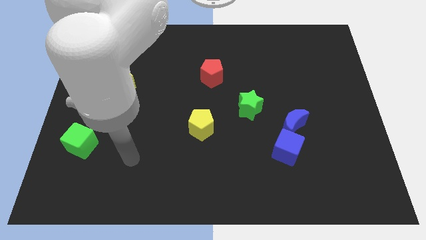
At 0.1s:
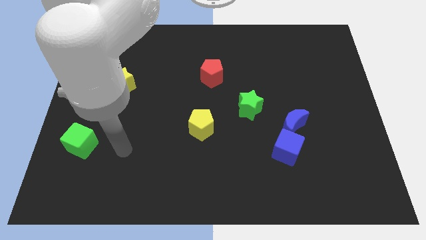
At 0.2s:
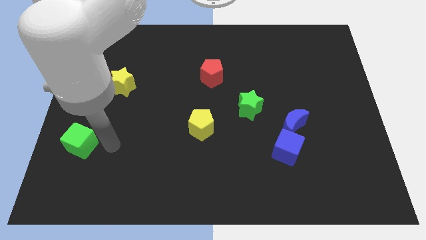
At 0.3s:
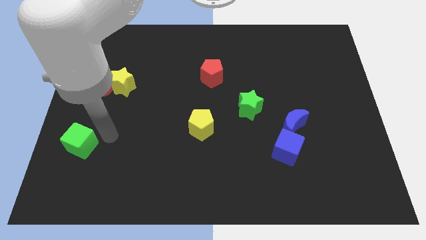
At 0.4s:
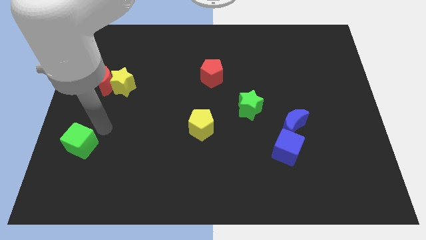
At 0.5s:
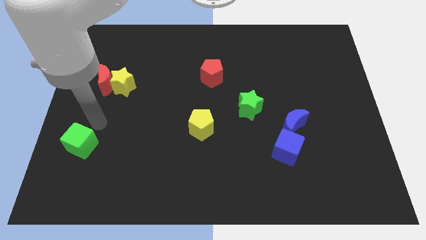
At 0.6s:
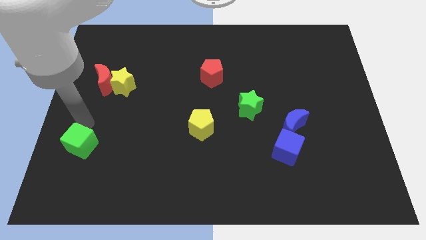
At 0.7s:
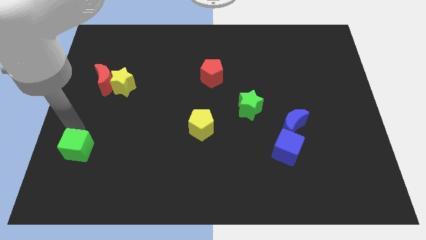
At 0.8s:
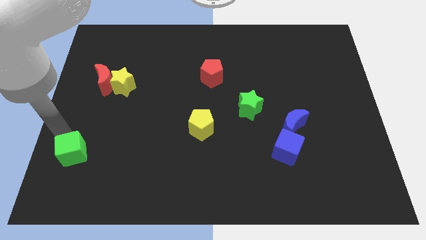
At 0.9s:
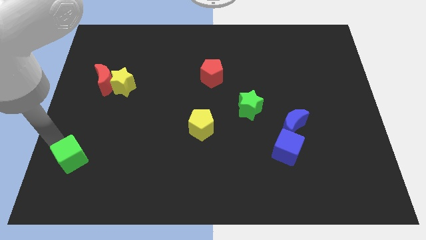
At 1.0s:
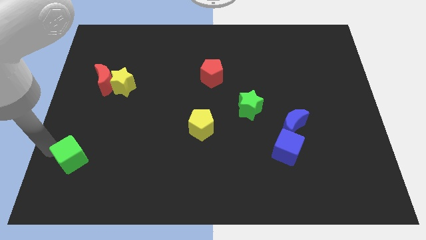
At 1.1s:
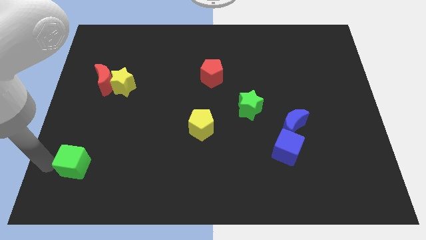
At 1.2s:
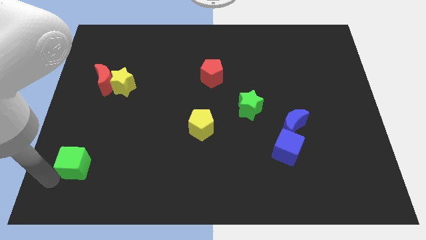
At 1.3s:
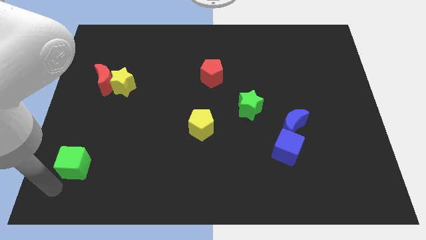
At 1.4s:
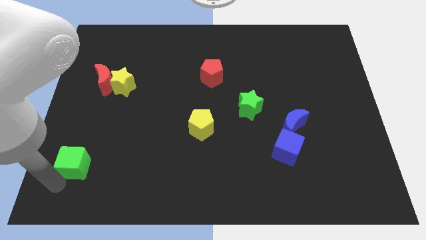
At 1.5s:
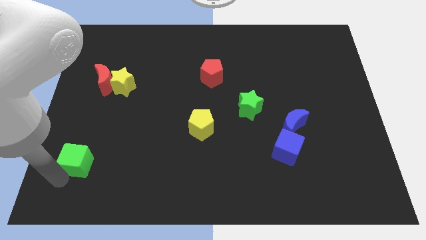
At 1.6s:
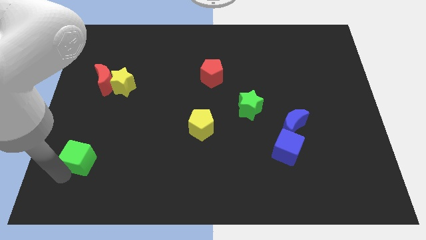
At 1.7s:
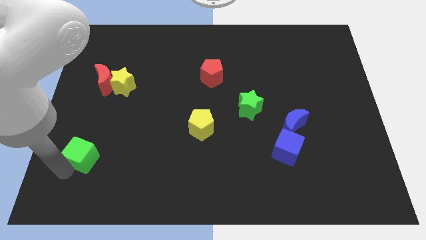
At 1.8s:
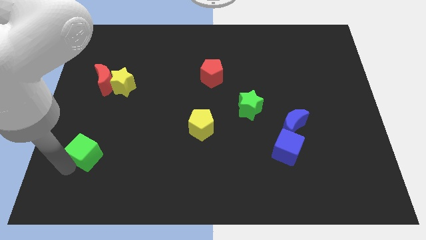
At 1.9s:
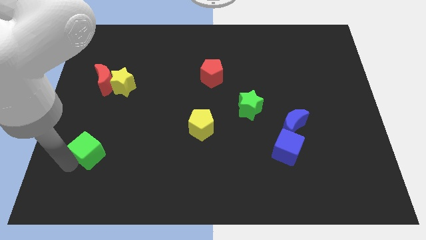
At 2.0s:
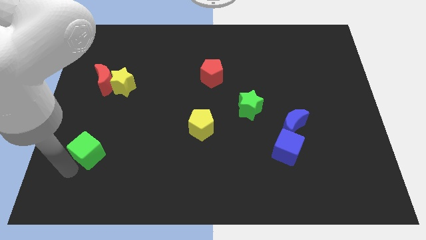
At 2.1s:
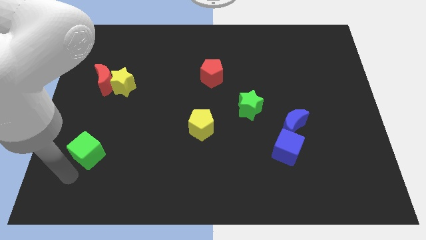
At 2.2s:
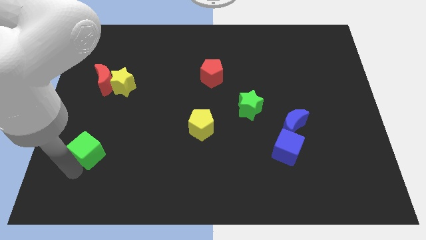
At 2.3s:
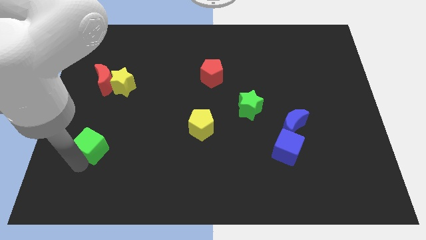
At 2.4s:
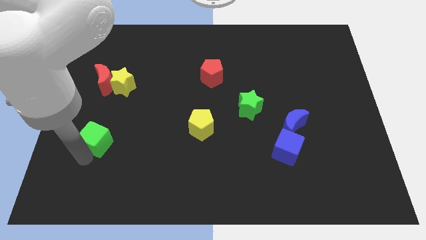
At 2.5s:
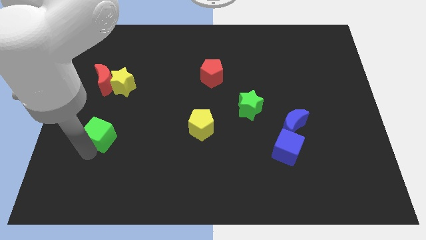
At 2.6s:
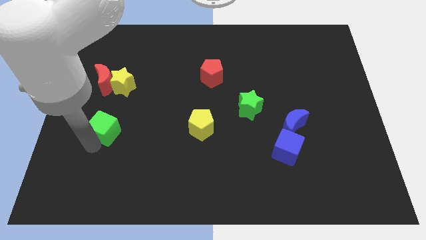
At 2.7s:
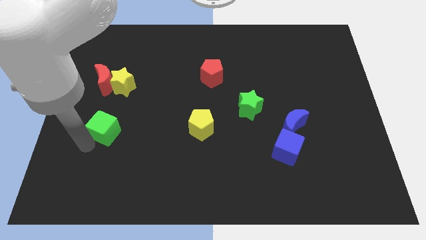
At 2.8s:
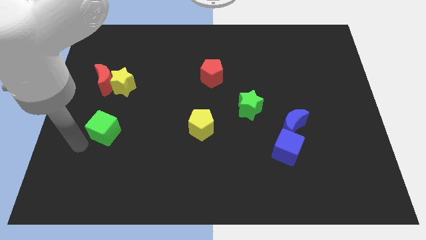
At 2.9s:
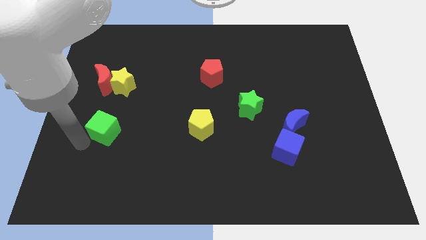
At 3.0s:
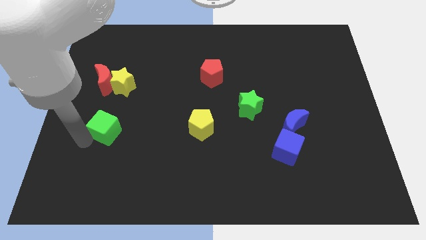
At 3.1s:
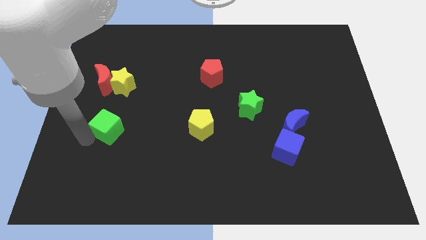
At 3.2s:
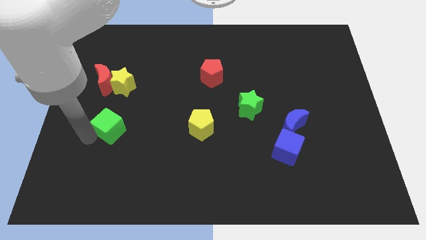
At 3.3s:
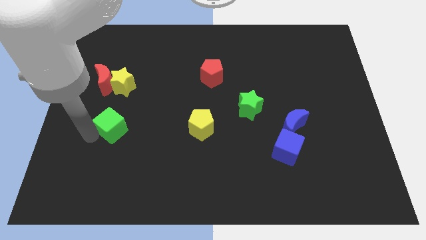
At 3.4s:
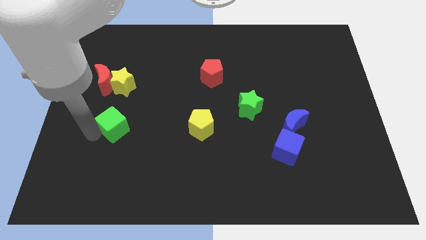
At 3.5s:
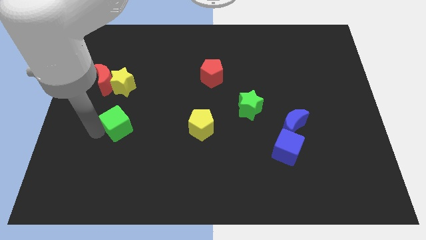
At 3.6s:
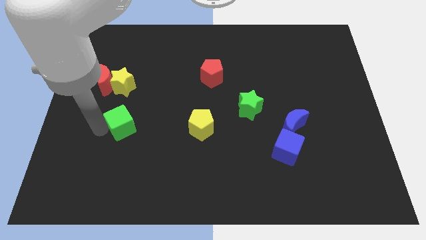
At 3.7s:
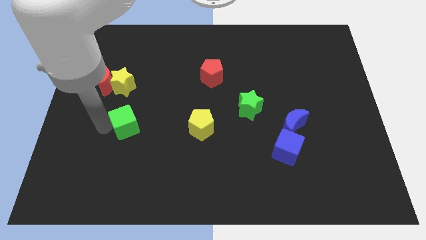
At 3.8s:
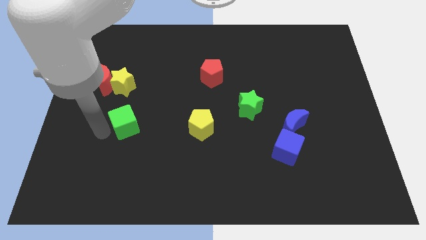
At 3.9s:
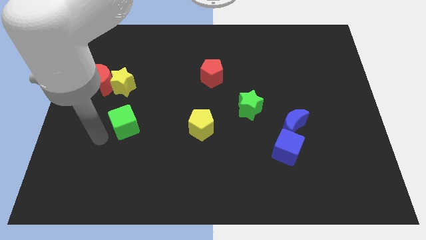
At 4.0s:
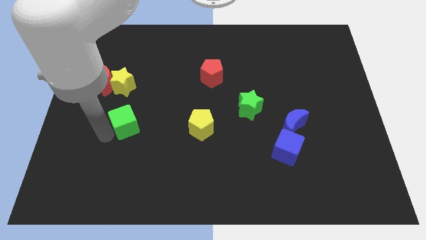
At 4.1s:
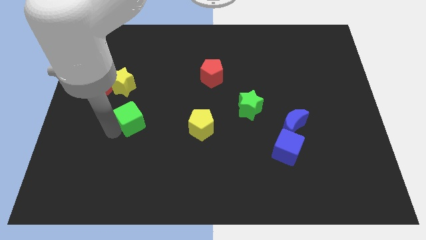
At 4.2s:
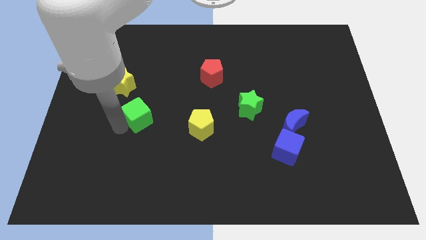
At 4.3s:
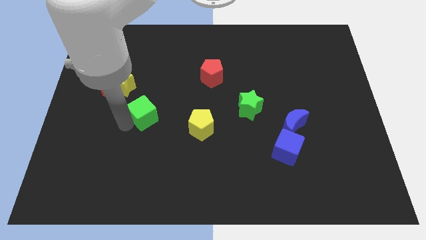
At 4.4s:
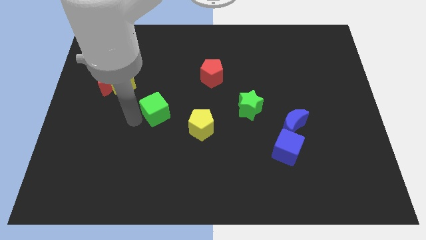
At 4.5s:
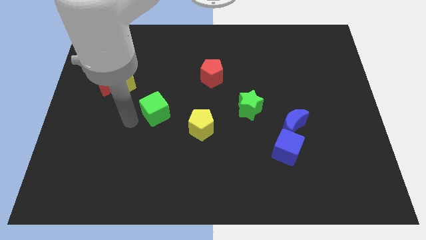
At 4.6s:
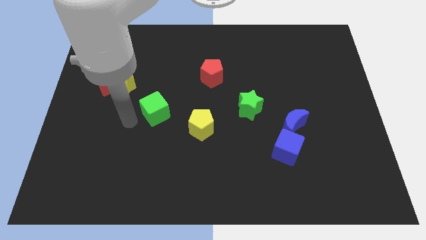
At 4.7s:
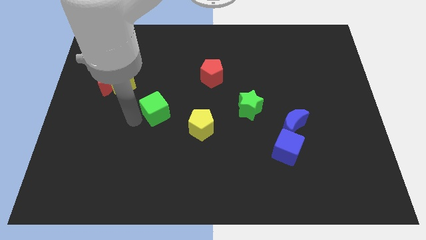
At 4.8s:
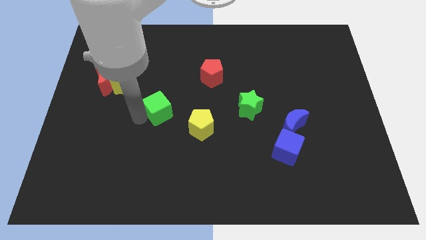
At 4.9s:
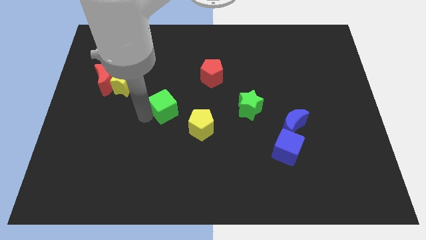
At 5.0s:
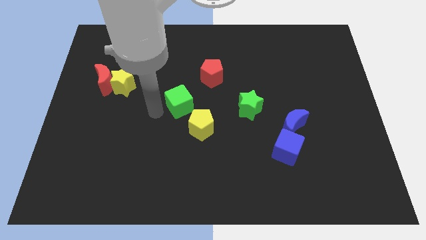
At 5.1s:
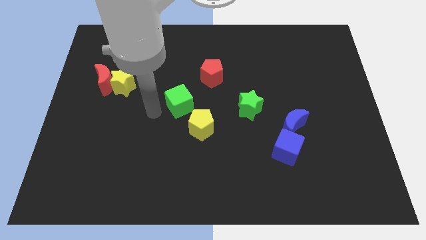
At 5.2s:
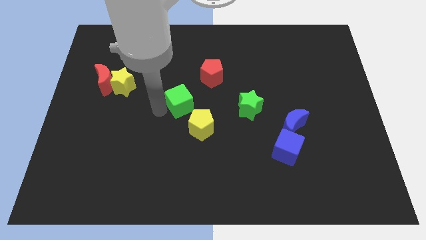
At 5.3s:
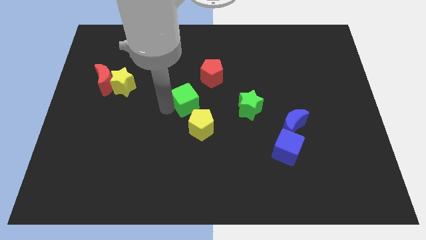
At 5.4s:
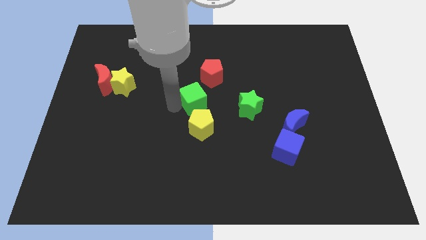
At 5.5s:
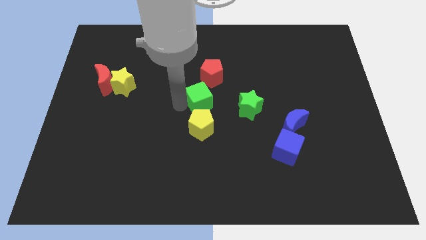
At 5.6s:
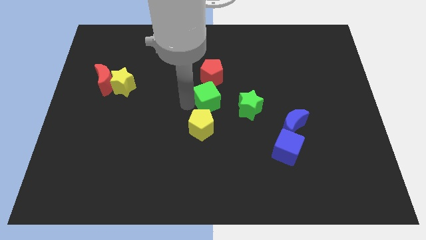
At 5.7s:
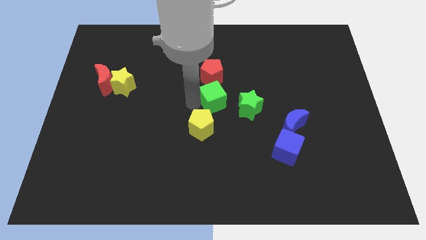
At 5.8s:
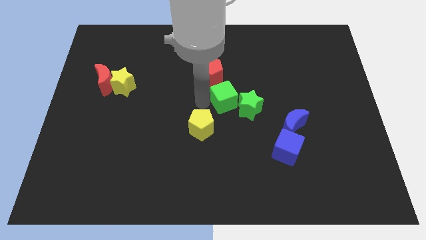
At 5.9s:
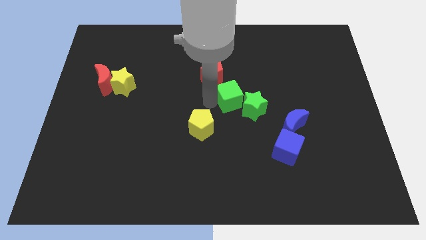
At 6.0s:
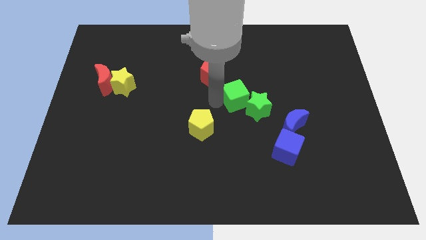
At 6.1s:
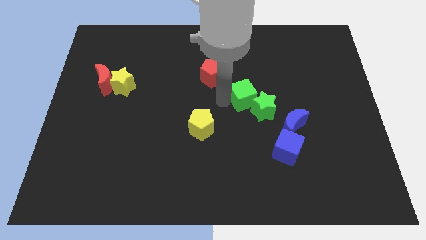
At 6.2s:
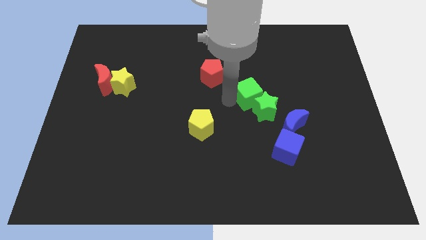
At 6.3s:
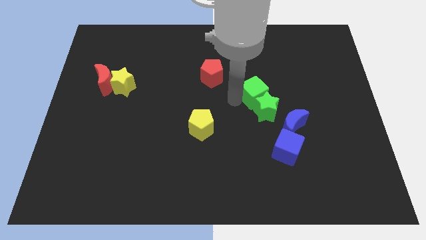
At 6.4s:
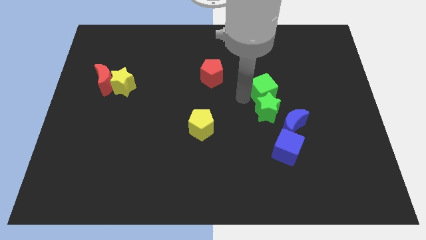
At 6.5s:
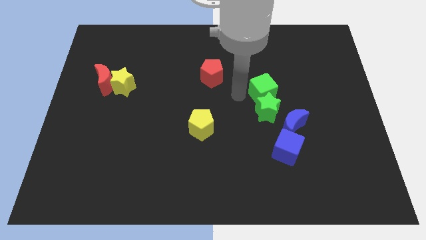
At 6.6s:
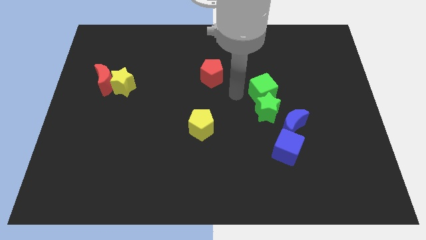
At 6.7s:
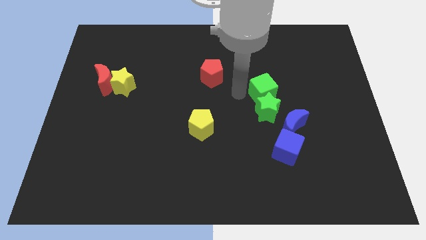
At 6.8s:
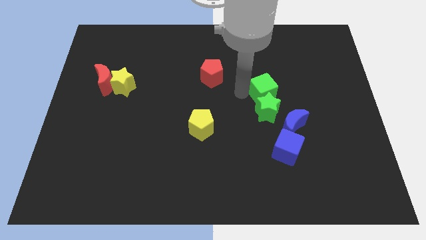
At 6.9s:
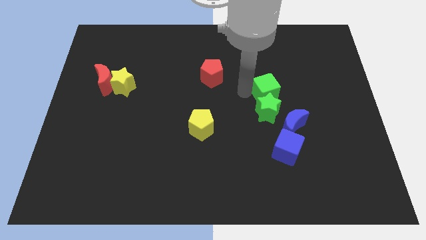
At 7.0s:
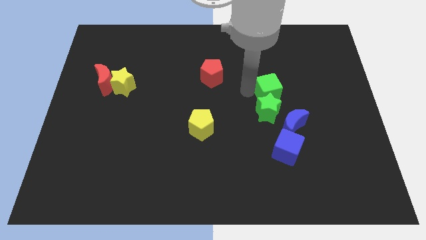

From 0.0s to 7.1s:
push the green cube to the top of the blue moon

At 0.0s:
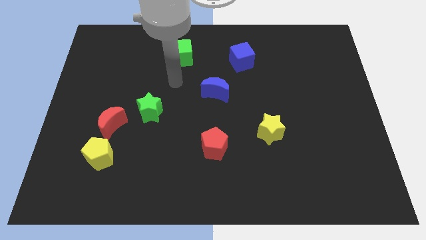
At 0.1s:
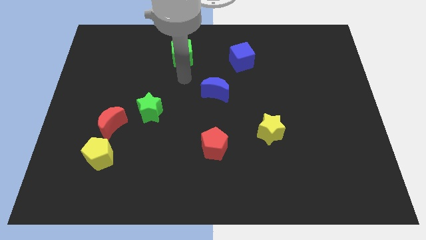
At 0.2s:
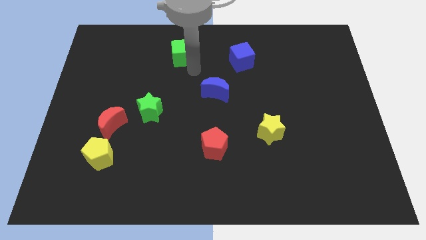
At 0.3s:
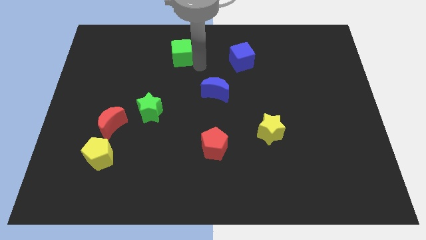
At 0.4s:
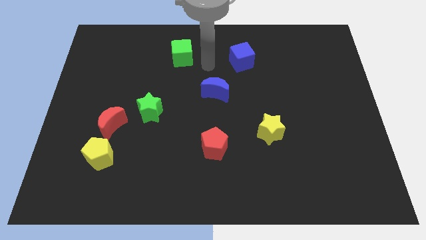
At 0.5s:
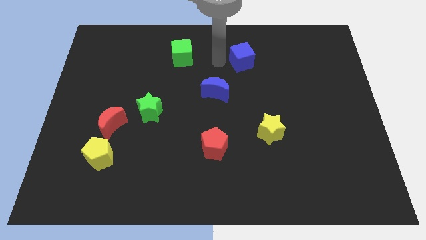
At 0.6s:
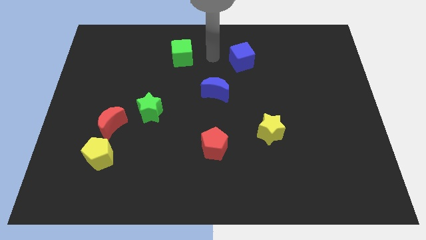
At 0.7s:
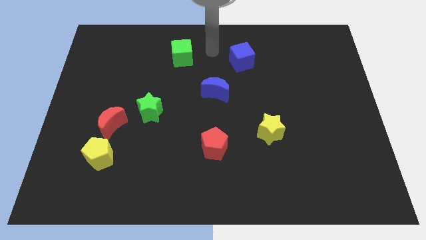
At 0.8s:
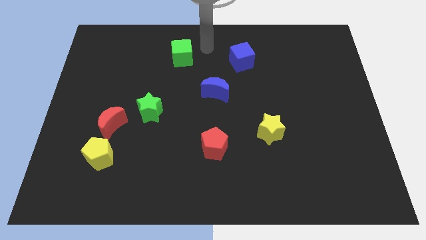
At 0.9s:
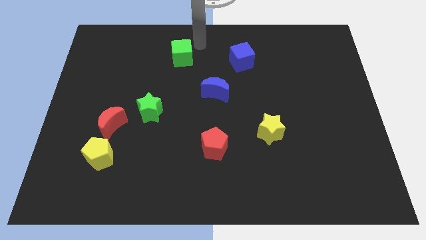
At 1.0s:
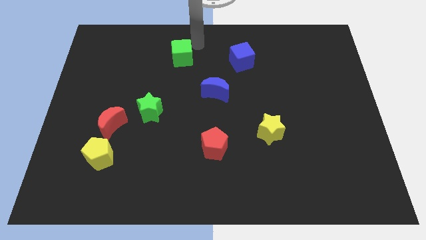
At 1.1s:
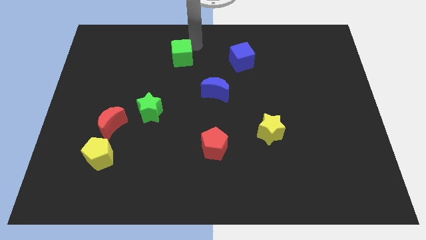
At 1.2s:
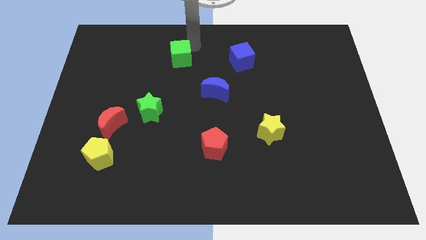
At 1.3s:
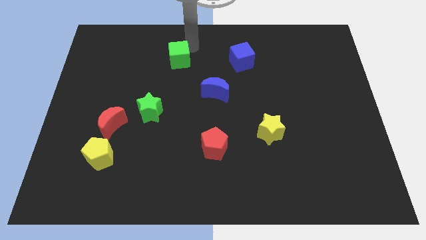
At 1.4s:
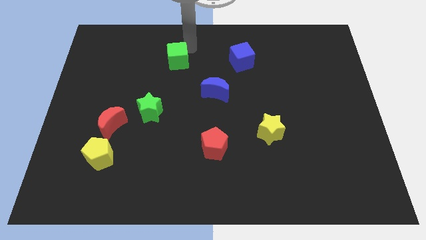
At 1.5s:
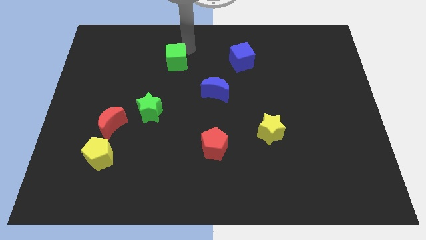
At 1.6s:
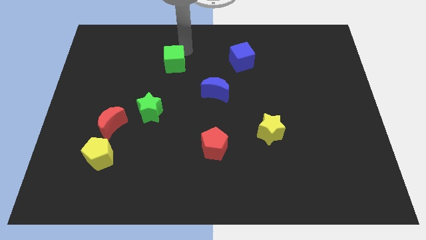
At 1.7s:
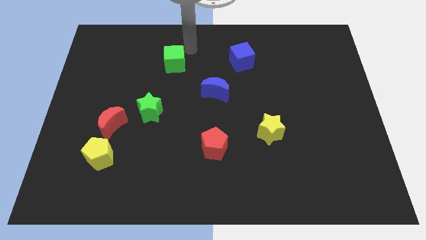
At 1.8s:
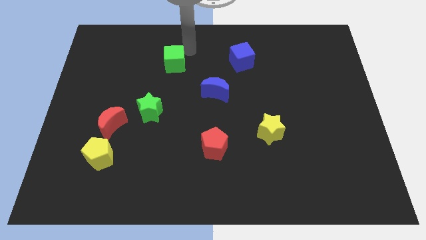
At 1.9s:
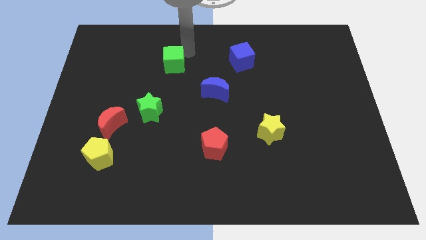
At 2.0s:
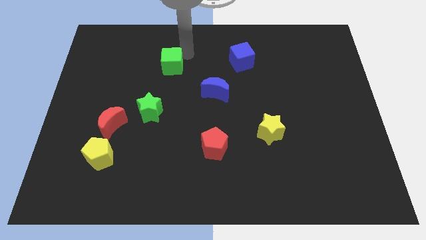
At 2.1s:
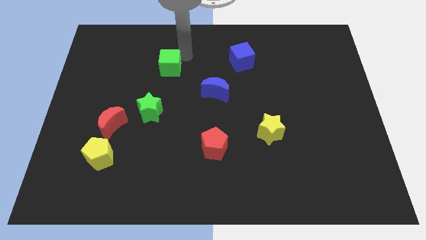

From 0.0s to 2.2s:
put the green cube to the top of the green star
